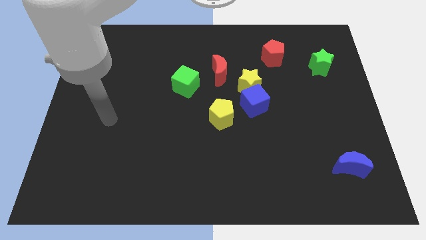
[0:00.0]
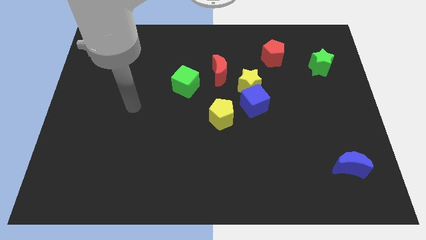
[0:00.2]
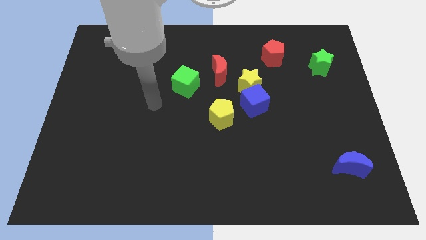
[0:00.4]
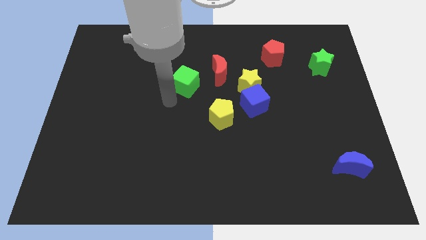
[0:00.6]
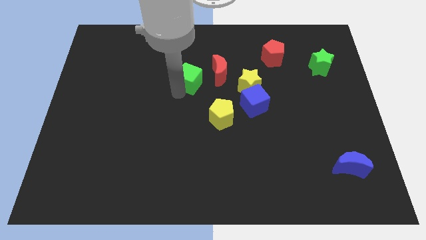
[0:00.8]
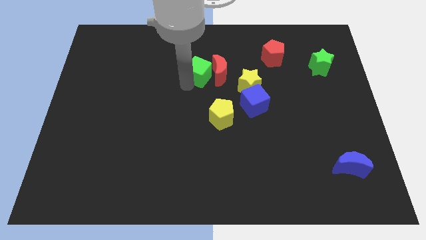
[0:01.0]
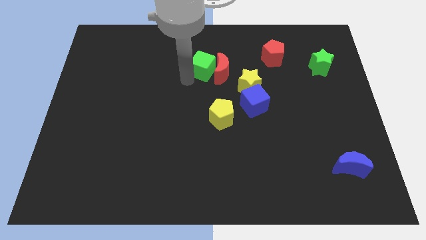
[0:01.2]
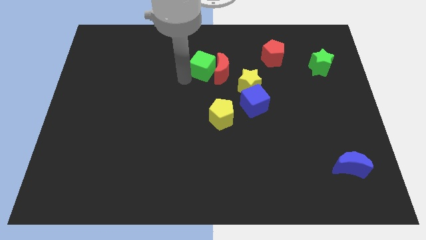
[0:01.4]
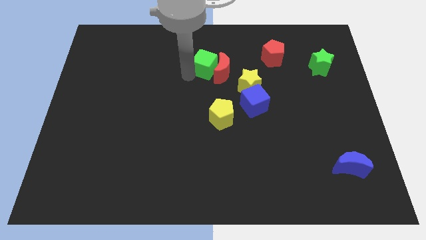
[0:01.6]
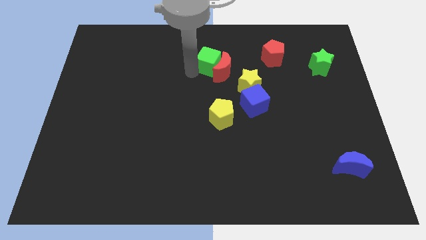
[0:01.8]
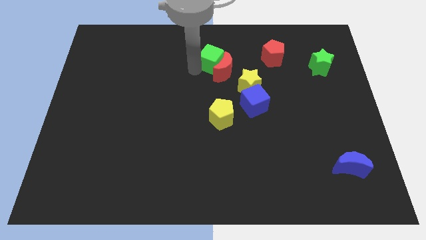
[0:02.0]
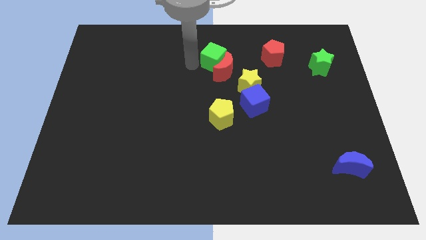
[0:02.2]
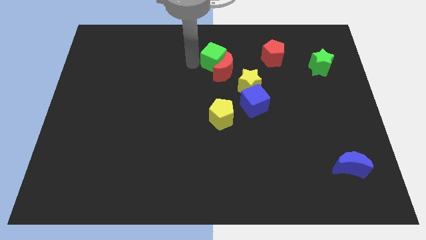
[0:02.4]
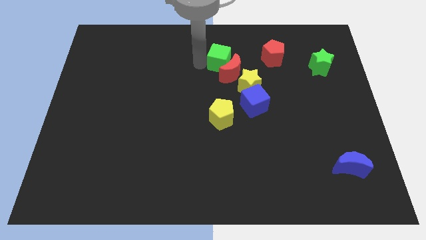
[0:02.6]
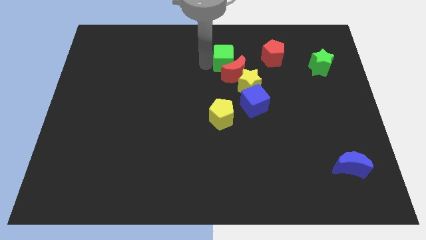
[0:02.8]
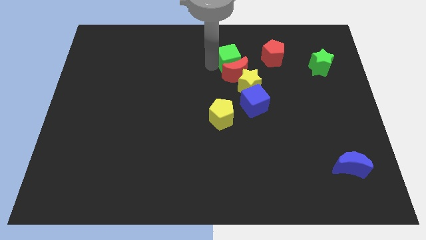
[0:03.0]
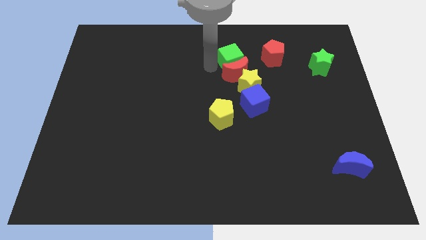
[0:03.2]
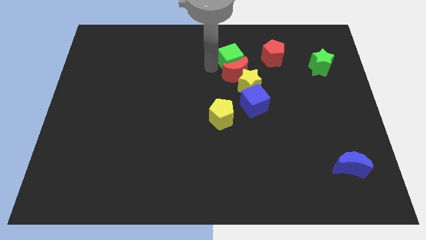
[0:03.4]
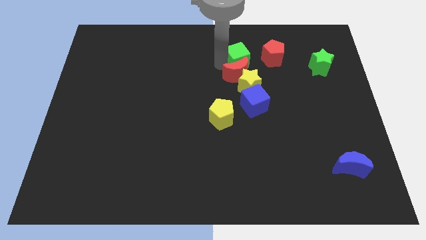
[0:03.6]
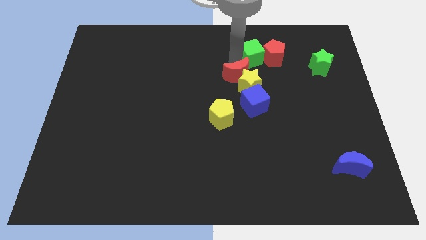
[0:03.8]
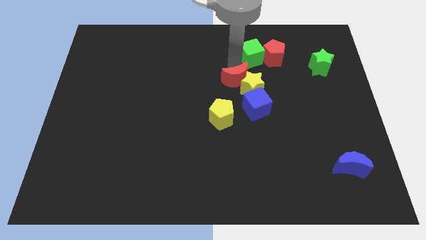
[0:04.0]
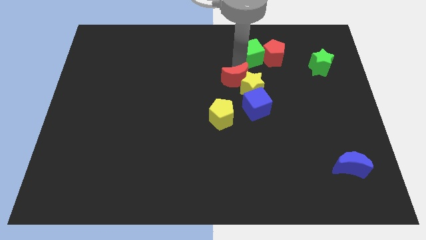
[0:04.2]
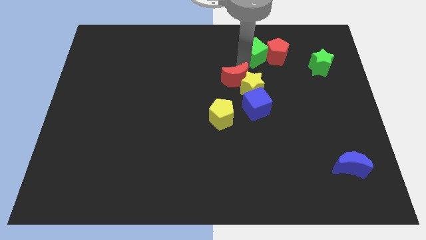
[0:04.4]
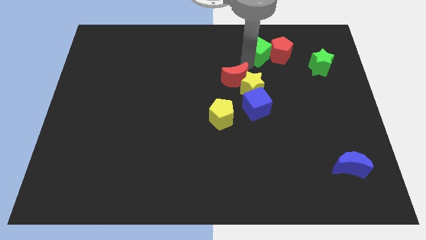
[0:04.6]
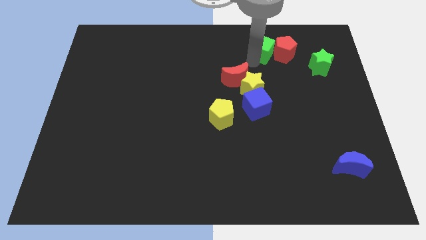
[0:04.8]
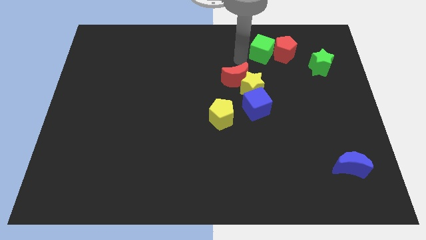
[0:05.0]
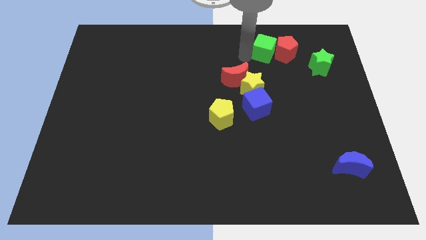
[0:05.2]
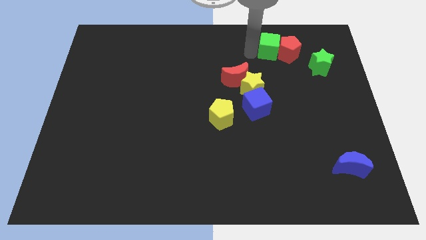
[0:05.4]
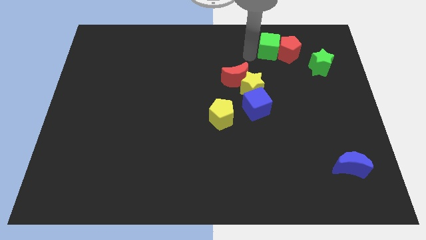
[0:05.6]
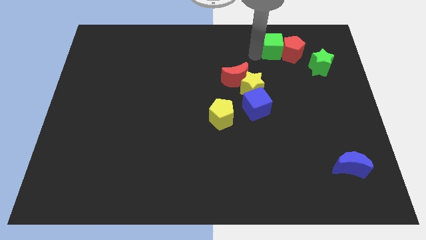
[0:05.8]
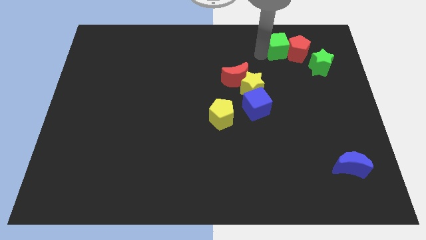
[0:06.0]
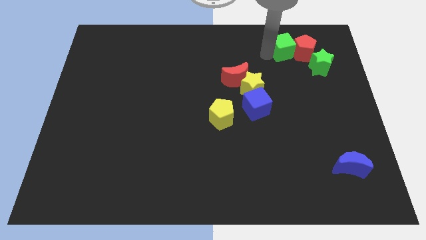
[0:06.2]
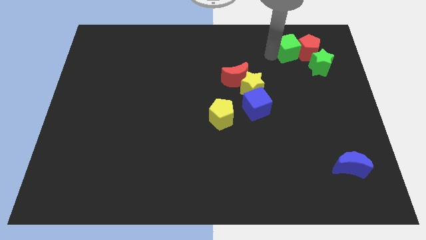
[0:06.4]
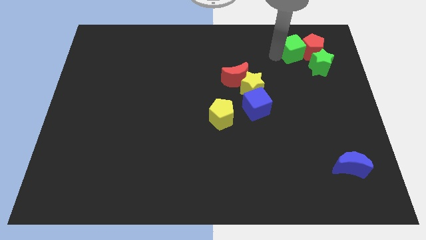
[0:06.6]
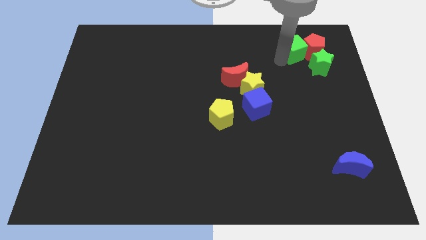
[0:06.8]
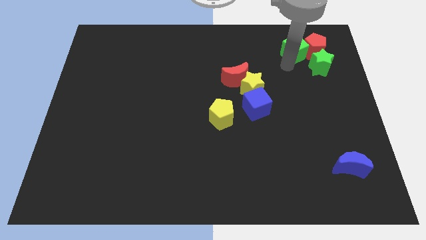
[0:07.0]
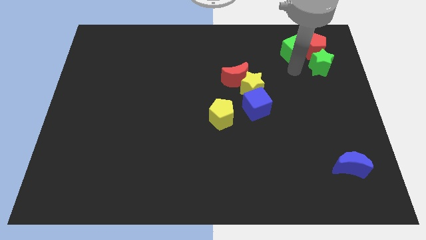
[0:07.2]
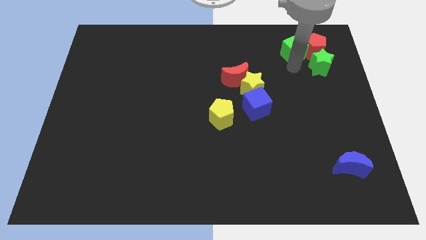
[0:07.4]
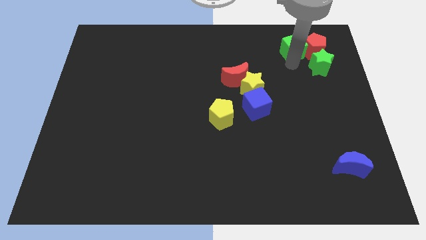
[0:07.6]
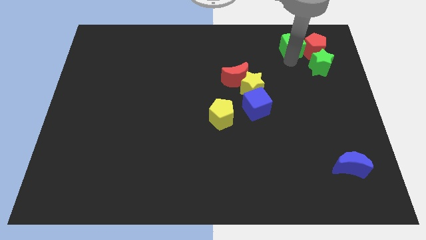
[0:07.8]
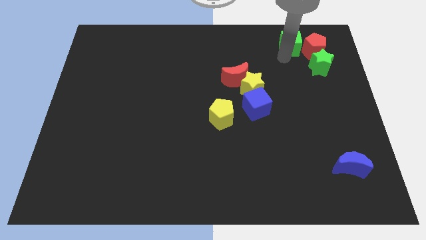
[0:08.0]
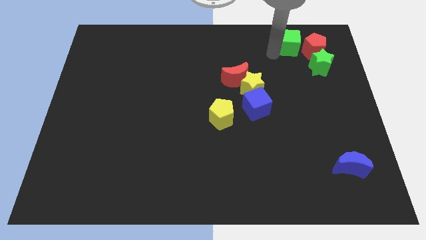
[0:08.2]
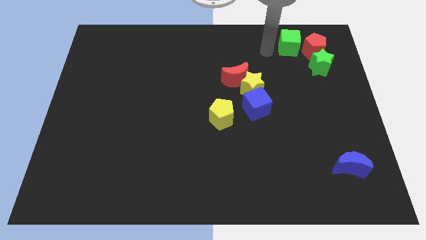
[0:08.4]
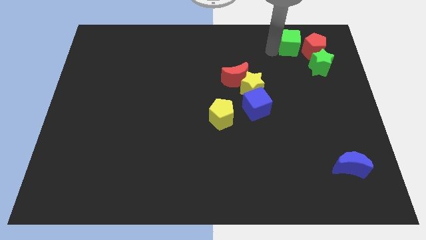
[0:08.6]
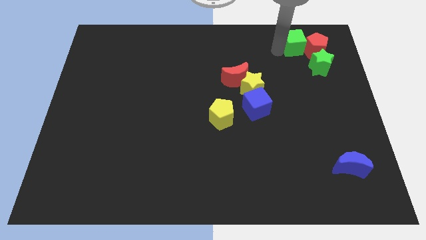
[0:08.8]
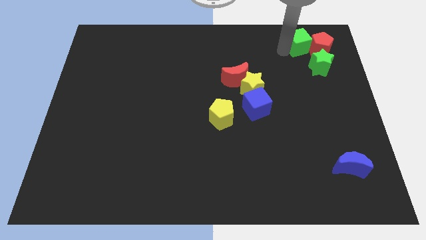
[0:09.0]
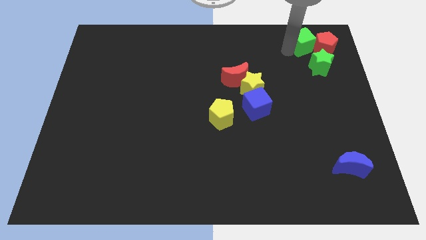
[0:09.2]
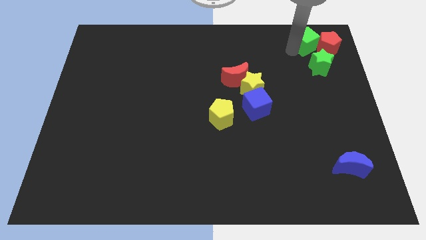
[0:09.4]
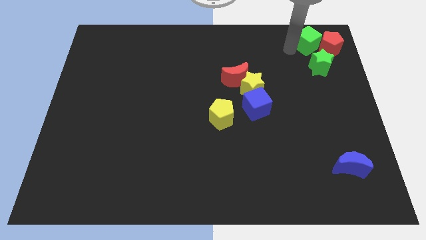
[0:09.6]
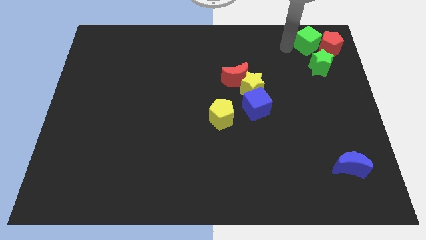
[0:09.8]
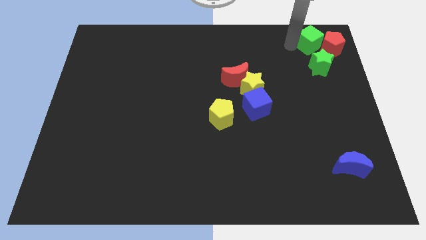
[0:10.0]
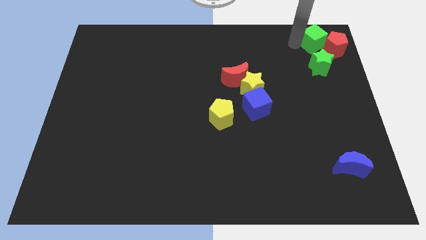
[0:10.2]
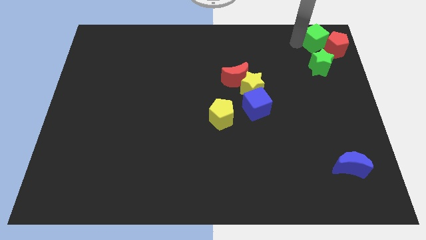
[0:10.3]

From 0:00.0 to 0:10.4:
put the green cube to the top right corner

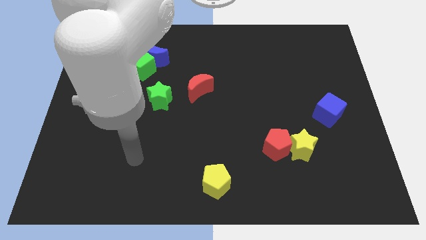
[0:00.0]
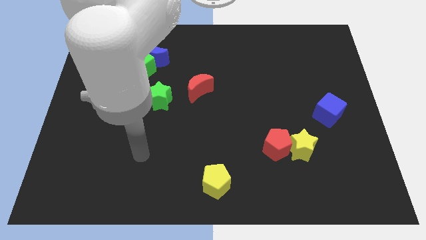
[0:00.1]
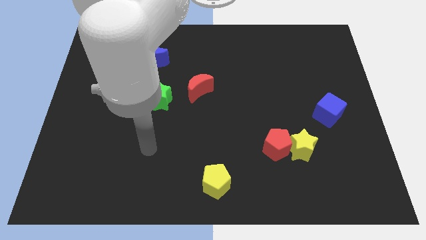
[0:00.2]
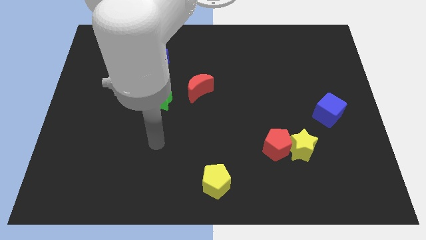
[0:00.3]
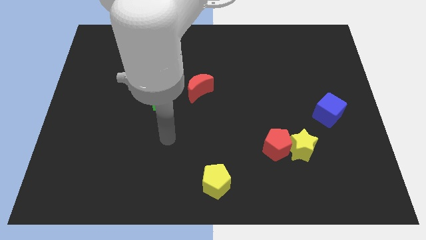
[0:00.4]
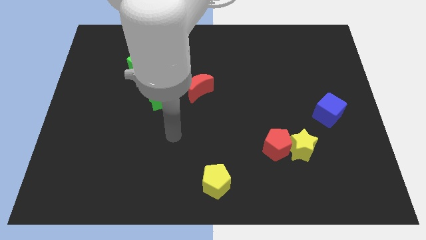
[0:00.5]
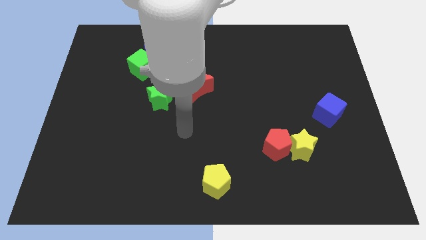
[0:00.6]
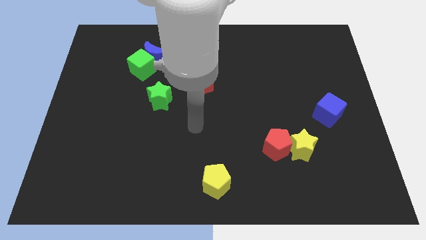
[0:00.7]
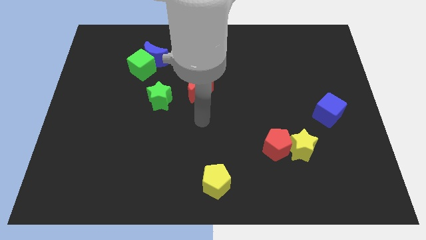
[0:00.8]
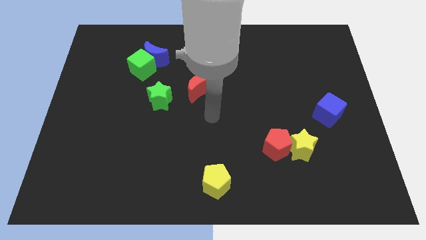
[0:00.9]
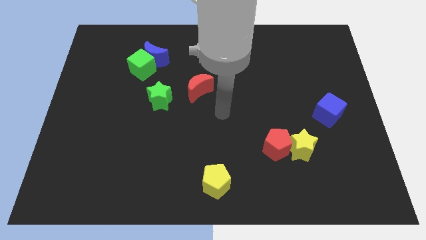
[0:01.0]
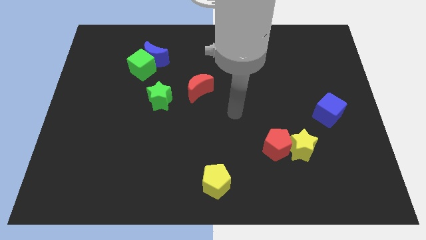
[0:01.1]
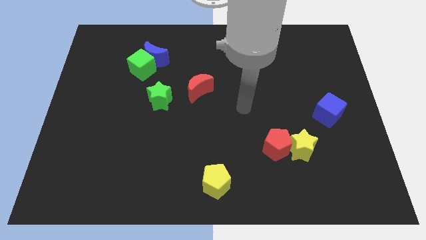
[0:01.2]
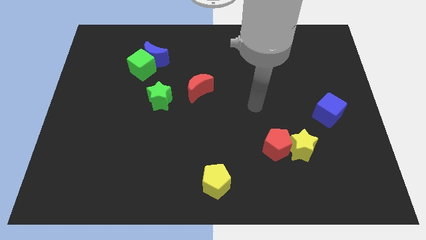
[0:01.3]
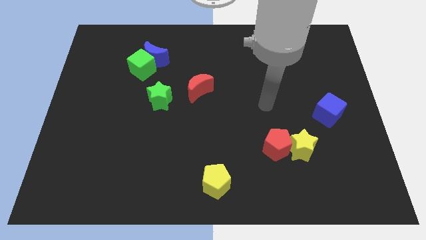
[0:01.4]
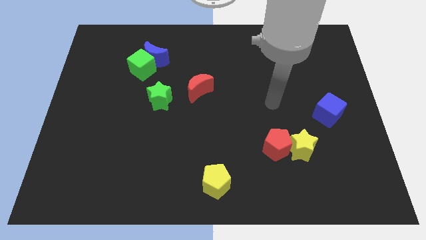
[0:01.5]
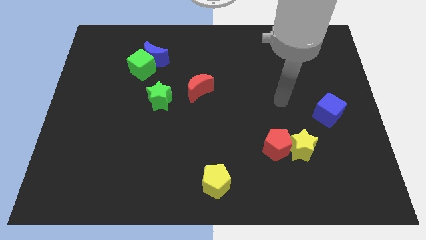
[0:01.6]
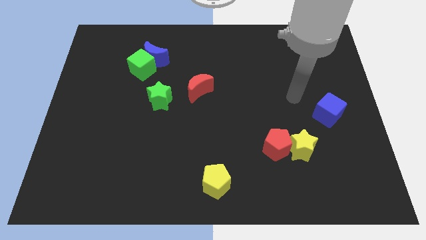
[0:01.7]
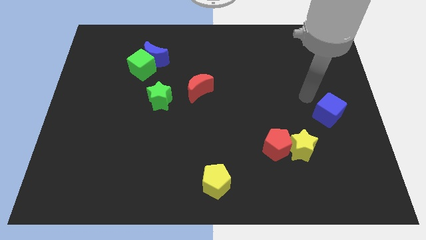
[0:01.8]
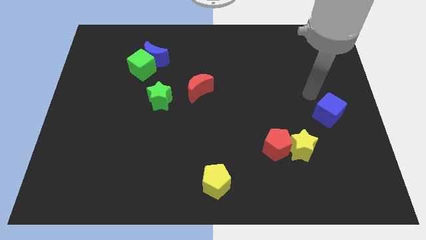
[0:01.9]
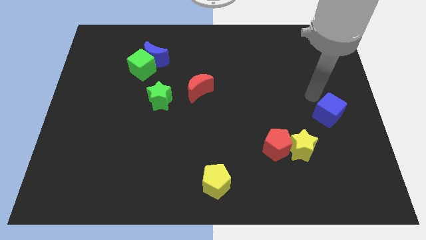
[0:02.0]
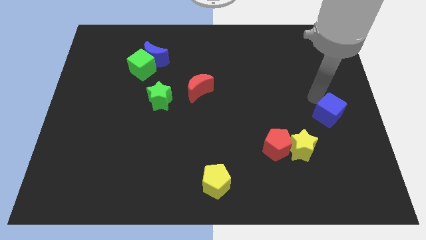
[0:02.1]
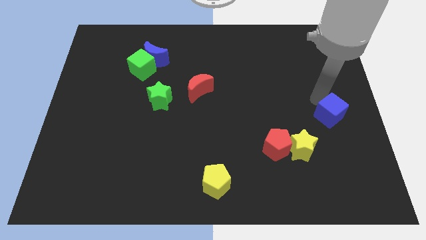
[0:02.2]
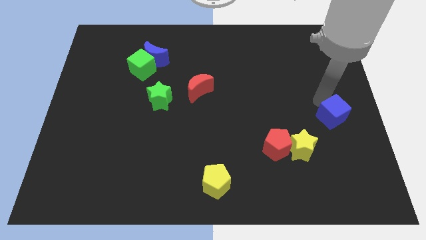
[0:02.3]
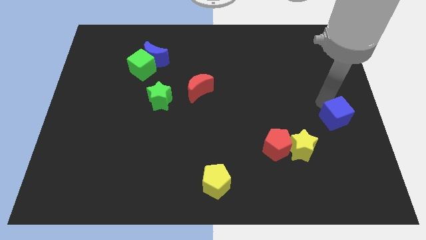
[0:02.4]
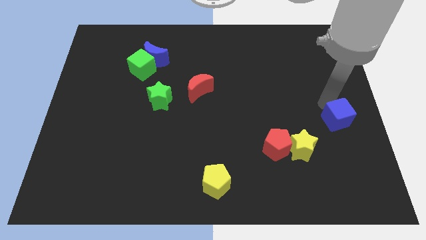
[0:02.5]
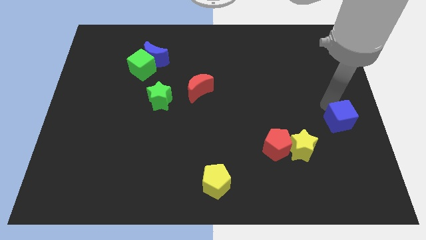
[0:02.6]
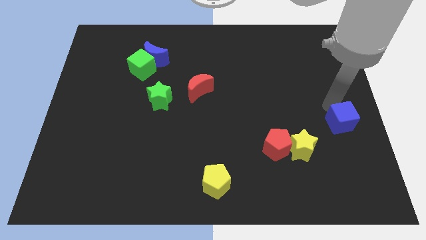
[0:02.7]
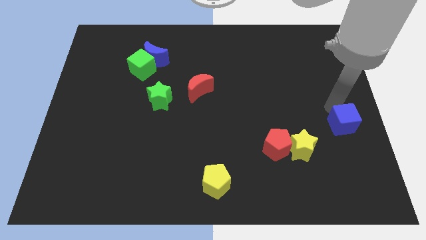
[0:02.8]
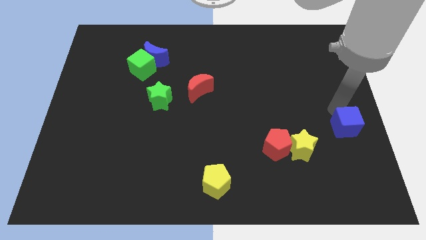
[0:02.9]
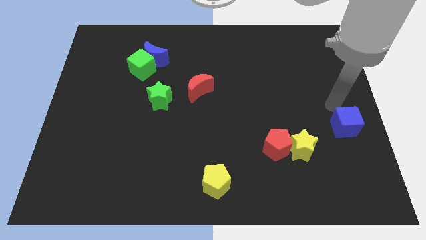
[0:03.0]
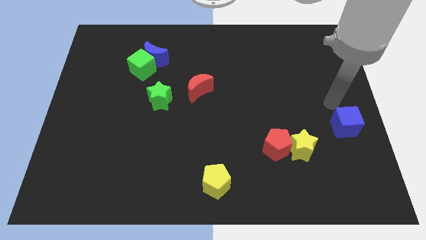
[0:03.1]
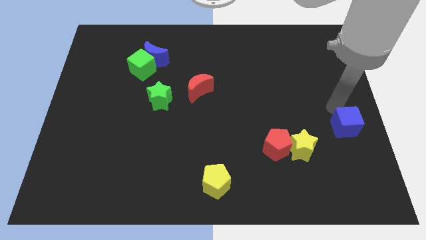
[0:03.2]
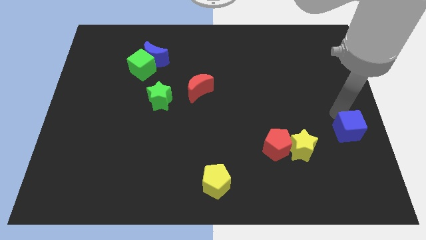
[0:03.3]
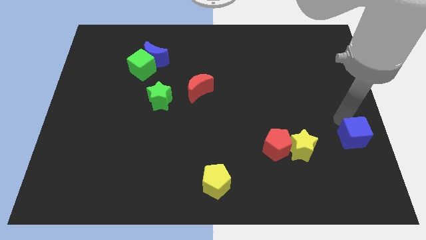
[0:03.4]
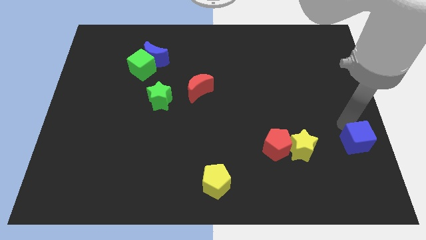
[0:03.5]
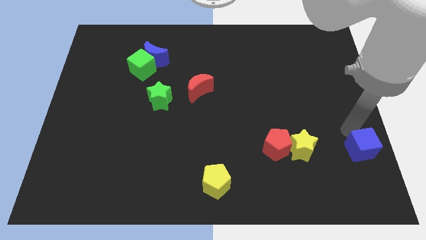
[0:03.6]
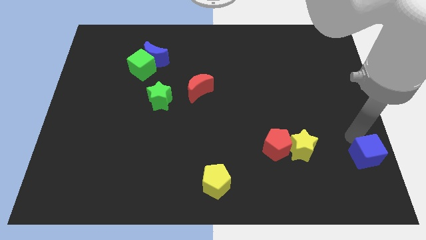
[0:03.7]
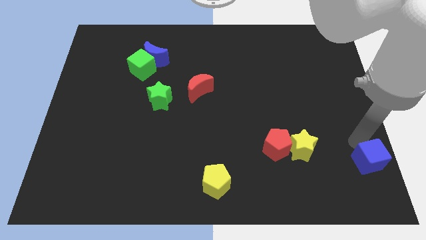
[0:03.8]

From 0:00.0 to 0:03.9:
move the blue cube to the bottom right of the board
